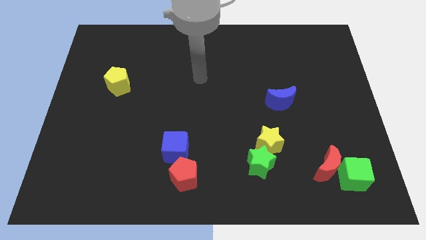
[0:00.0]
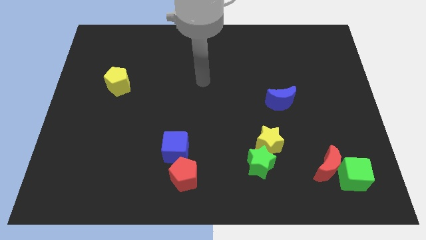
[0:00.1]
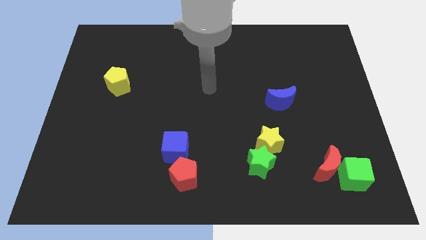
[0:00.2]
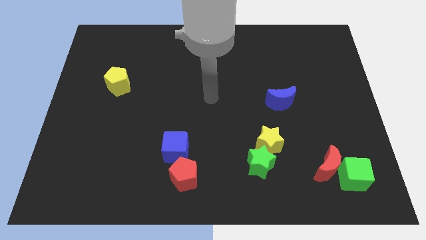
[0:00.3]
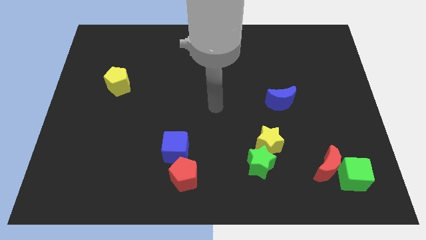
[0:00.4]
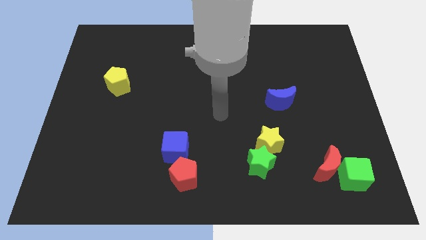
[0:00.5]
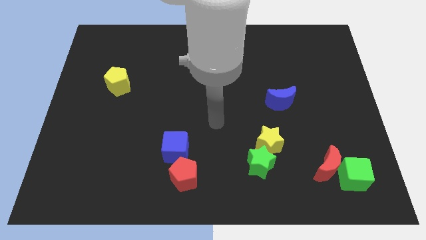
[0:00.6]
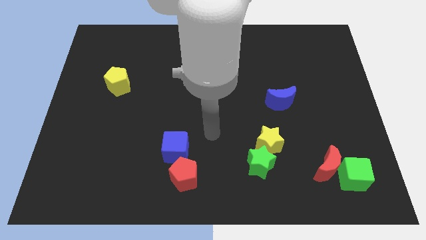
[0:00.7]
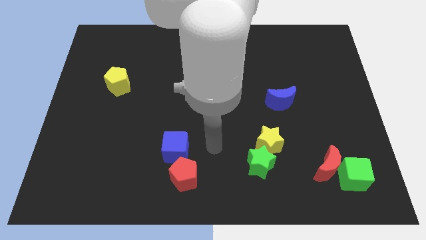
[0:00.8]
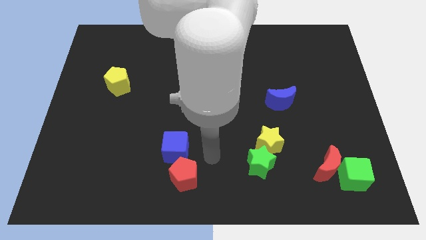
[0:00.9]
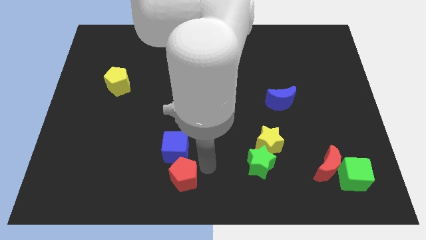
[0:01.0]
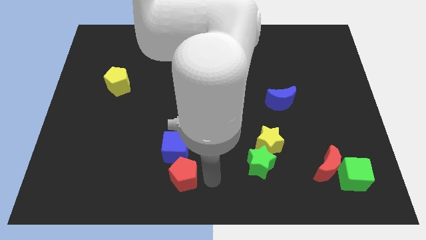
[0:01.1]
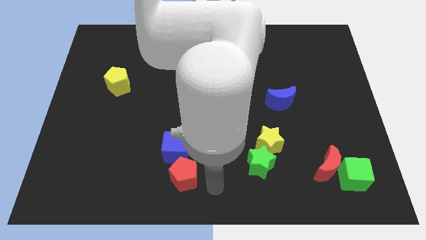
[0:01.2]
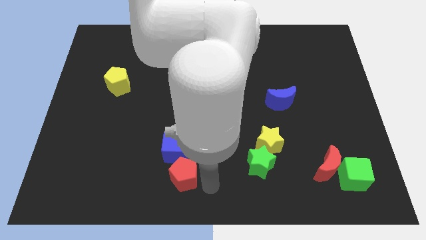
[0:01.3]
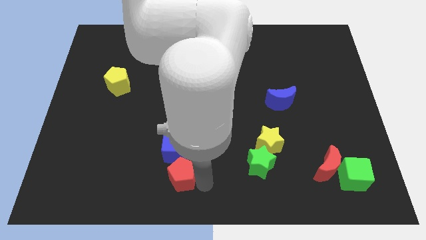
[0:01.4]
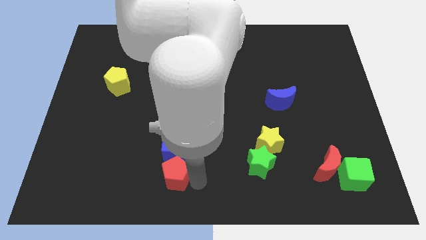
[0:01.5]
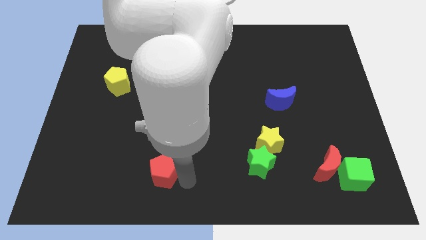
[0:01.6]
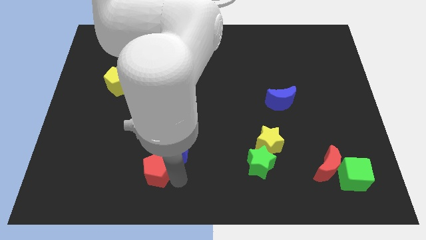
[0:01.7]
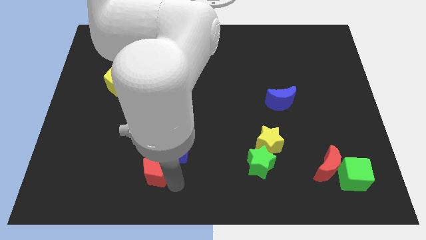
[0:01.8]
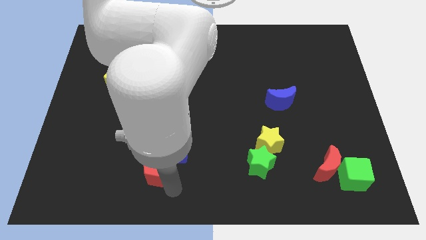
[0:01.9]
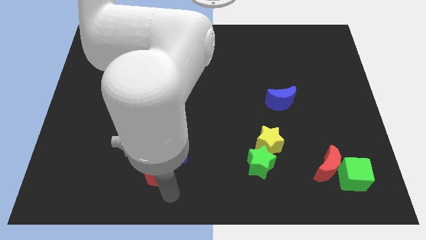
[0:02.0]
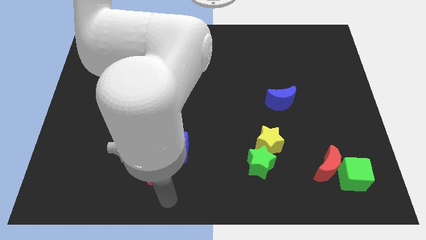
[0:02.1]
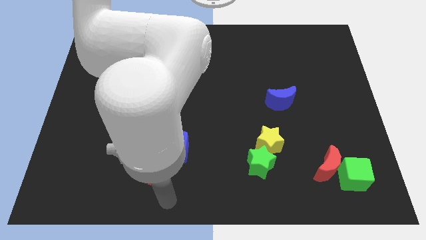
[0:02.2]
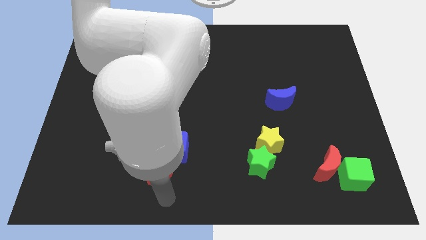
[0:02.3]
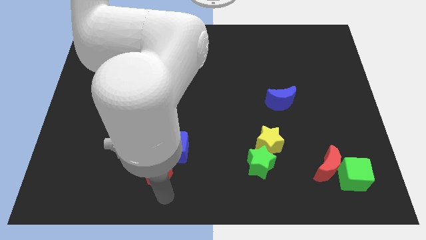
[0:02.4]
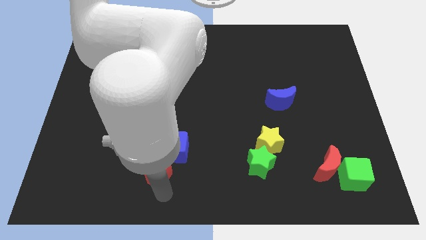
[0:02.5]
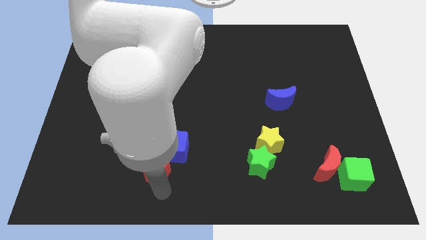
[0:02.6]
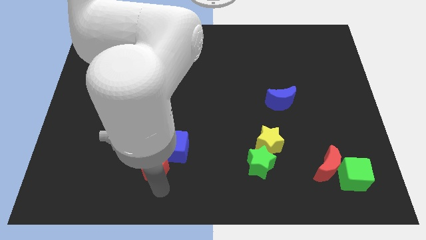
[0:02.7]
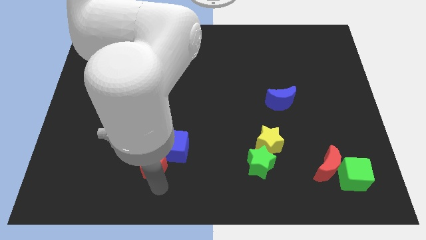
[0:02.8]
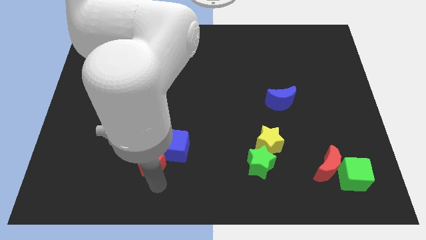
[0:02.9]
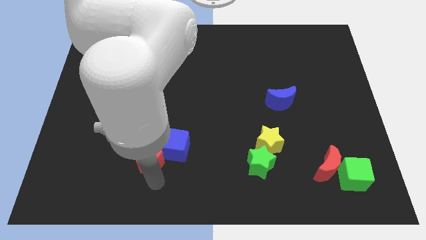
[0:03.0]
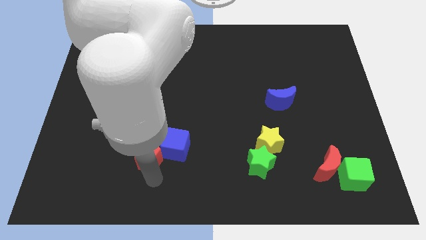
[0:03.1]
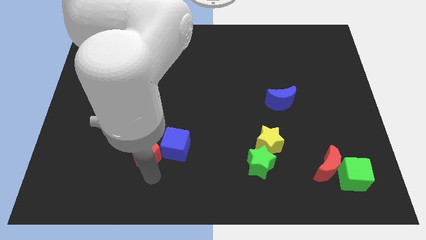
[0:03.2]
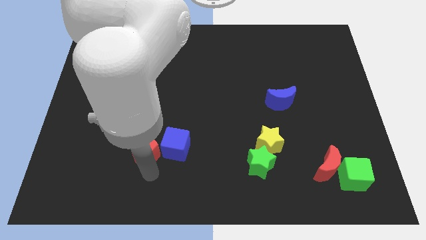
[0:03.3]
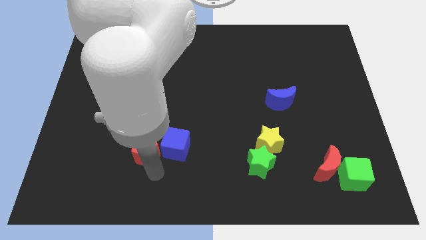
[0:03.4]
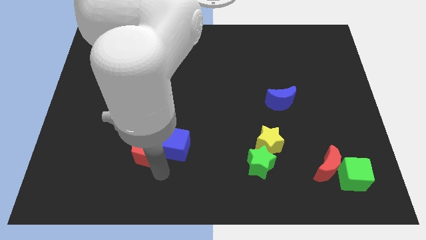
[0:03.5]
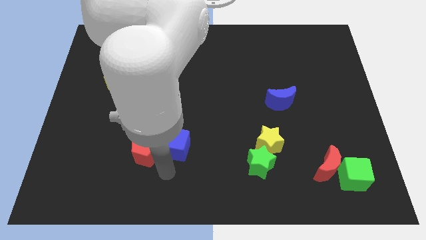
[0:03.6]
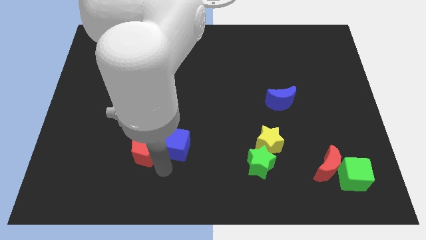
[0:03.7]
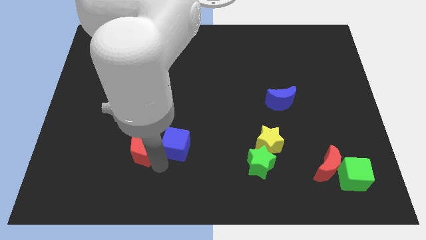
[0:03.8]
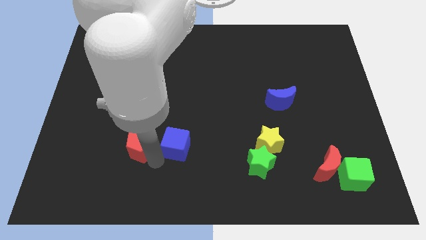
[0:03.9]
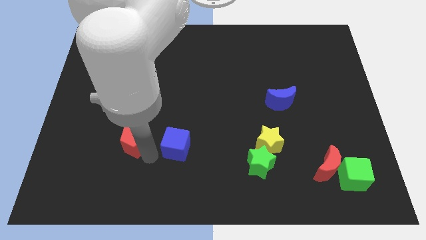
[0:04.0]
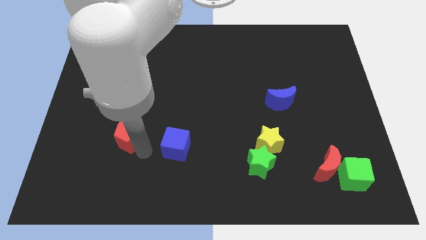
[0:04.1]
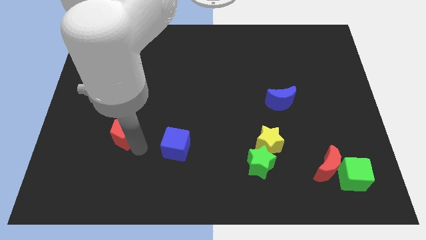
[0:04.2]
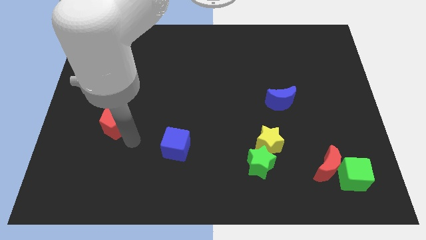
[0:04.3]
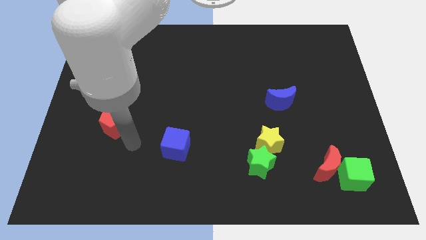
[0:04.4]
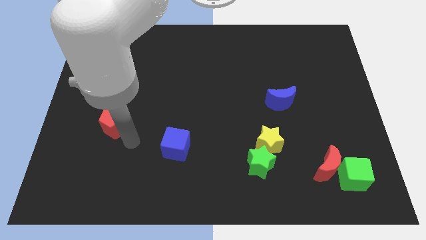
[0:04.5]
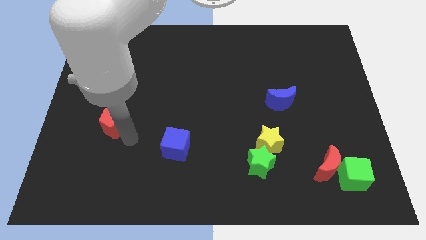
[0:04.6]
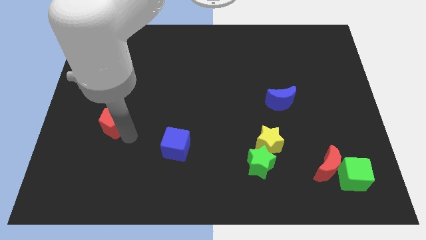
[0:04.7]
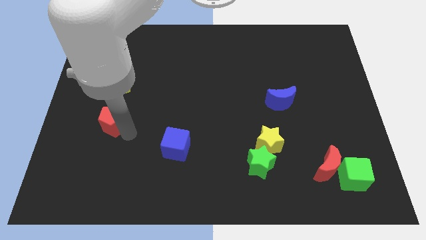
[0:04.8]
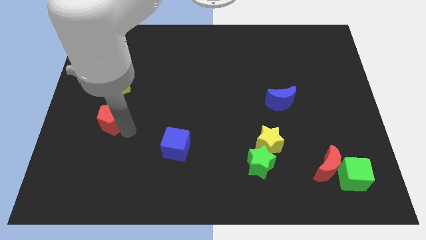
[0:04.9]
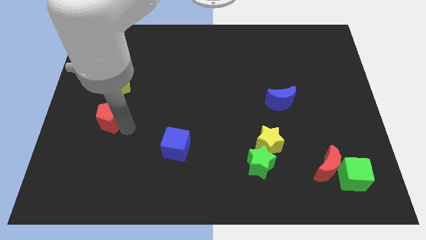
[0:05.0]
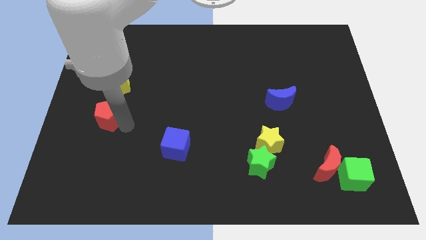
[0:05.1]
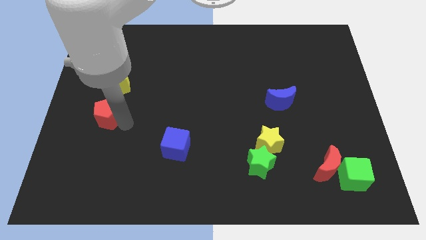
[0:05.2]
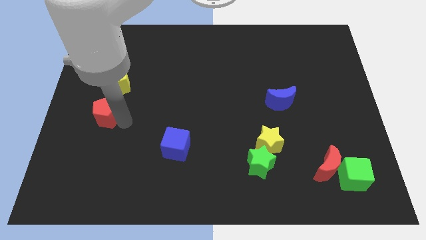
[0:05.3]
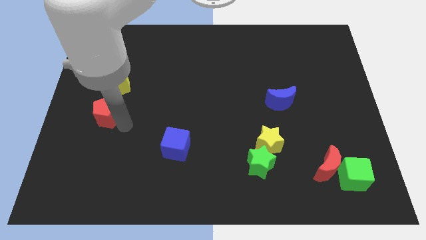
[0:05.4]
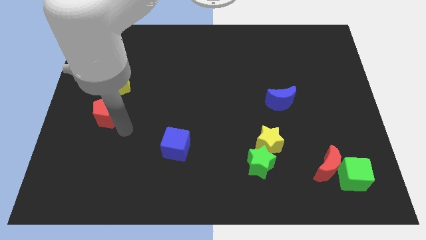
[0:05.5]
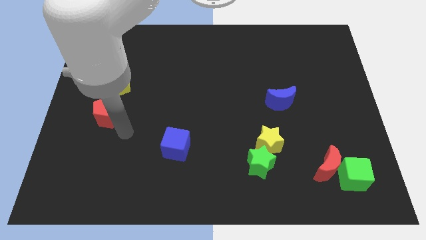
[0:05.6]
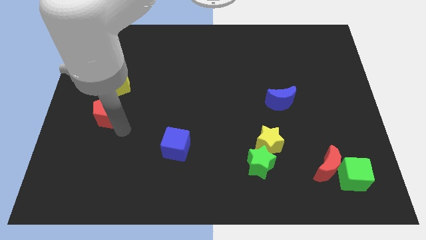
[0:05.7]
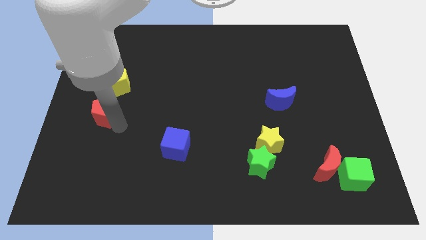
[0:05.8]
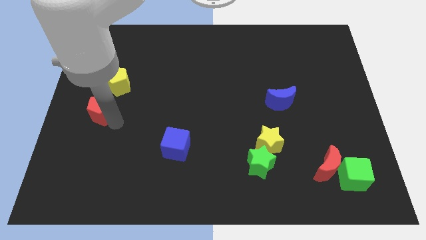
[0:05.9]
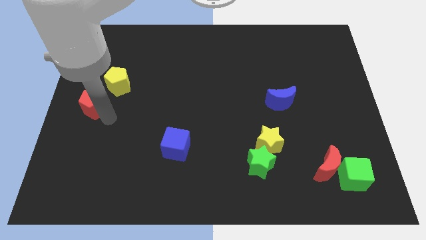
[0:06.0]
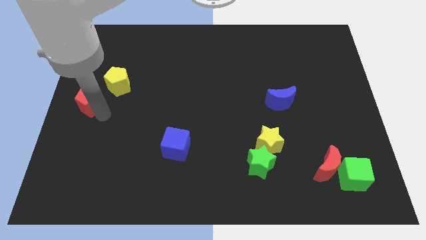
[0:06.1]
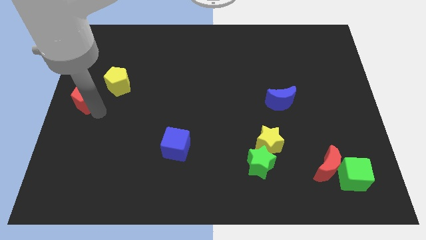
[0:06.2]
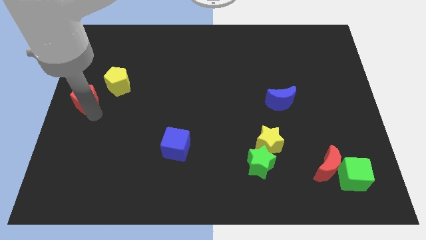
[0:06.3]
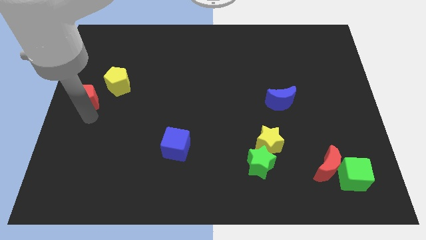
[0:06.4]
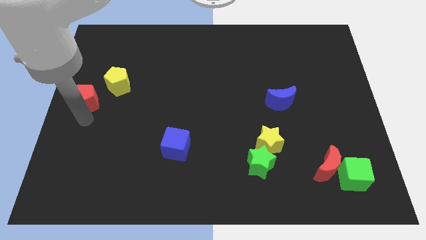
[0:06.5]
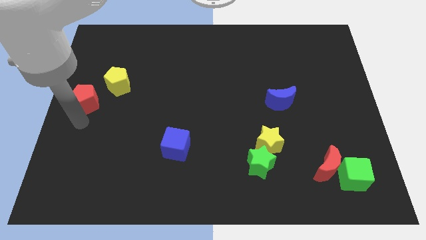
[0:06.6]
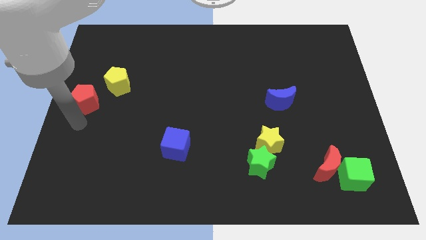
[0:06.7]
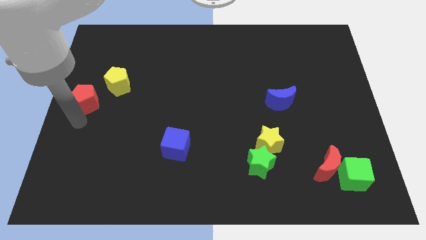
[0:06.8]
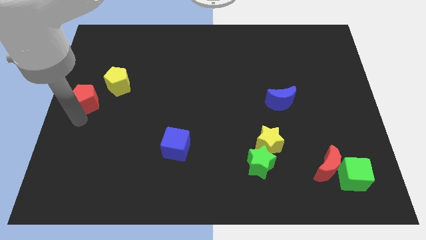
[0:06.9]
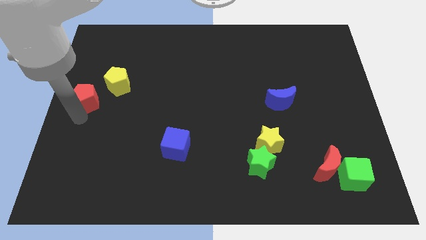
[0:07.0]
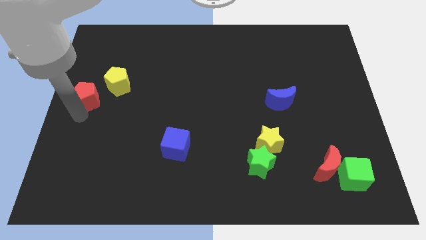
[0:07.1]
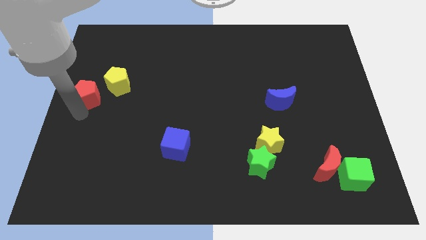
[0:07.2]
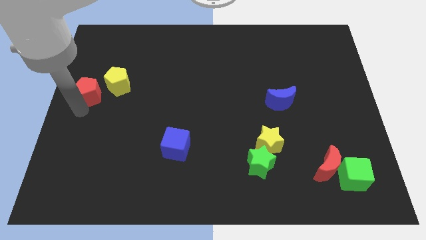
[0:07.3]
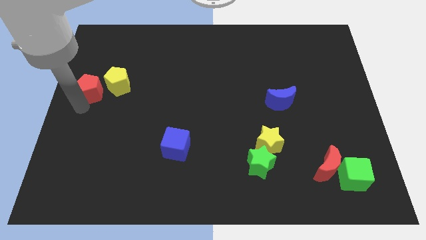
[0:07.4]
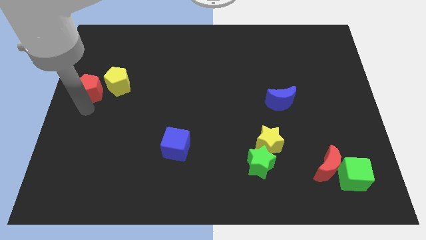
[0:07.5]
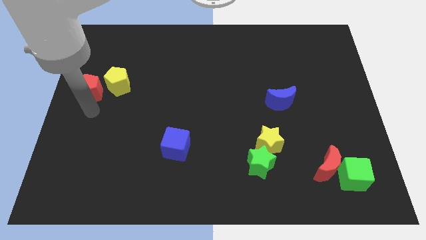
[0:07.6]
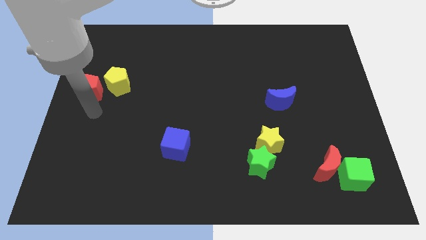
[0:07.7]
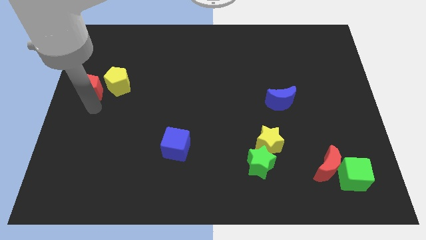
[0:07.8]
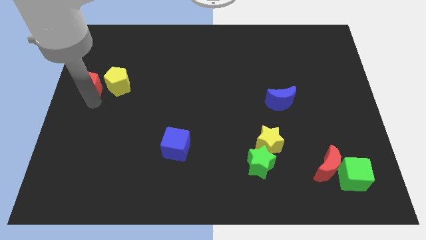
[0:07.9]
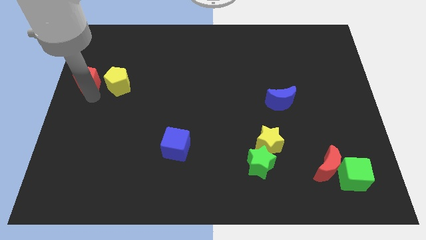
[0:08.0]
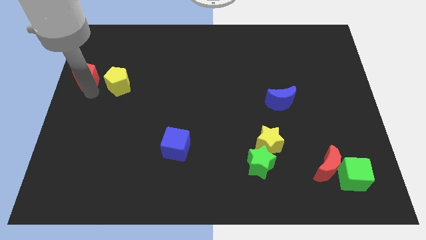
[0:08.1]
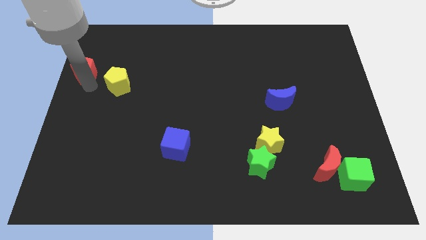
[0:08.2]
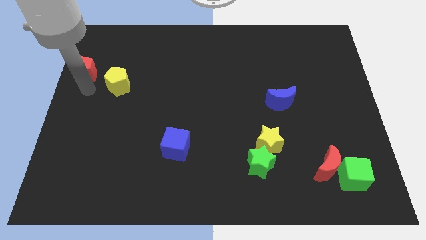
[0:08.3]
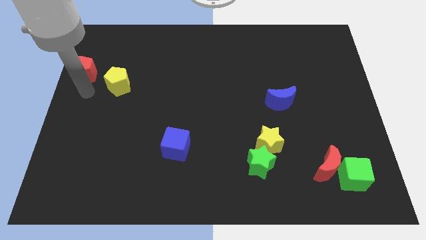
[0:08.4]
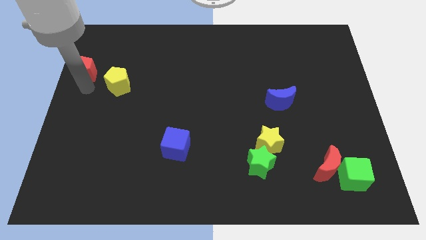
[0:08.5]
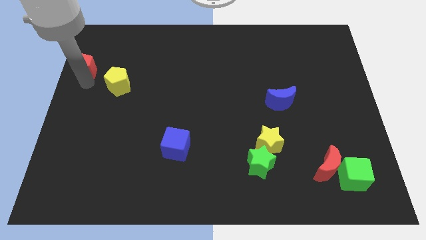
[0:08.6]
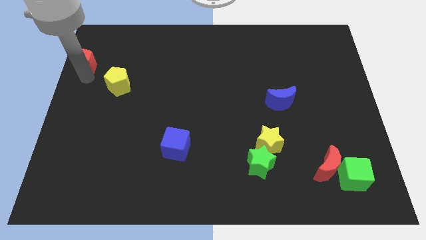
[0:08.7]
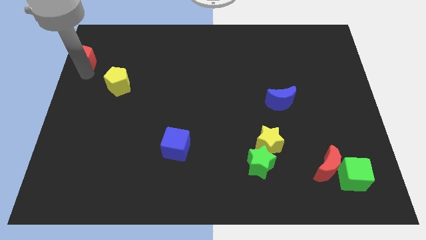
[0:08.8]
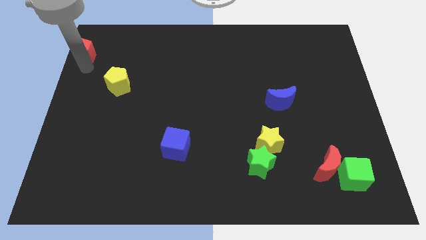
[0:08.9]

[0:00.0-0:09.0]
push the red pentagon to the top left
